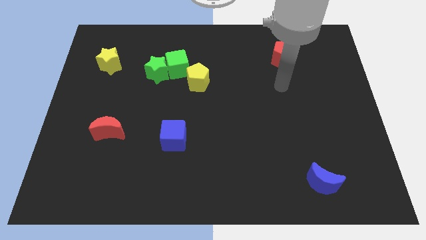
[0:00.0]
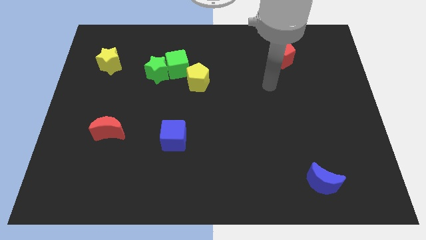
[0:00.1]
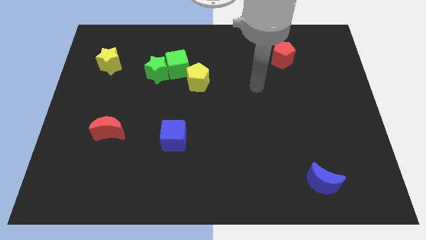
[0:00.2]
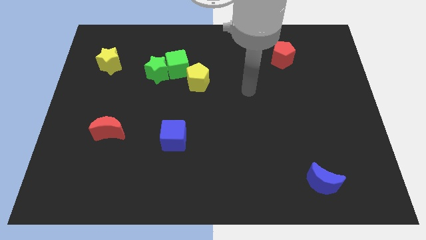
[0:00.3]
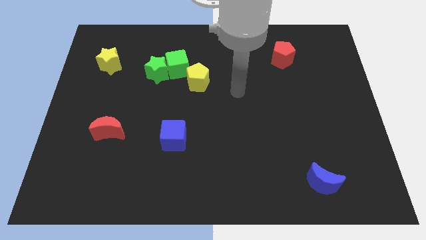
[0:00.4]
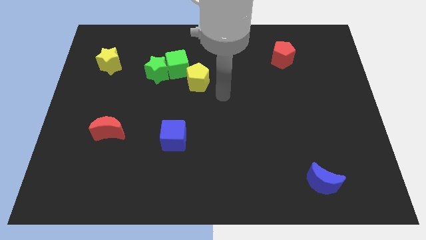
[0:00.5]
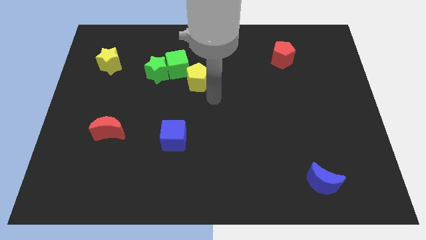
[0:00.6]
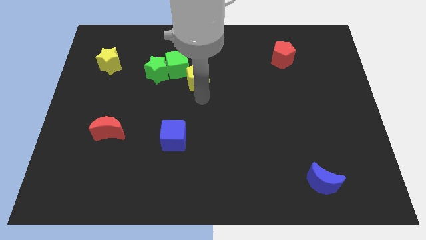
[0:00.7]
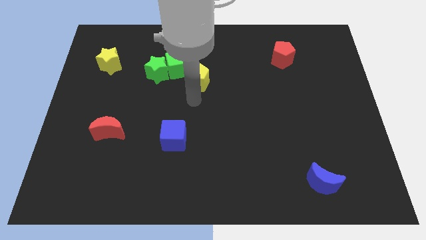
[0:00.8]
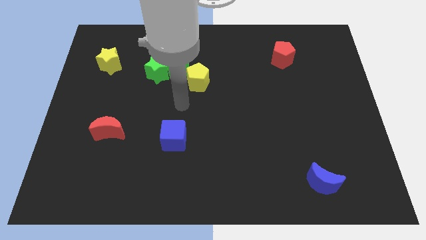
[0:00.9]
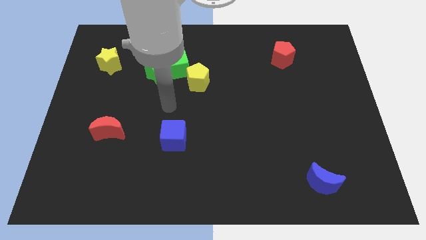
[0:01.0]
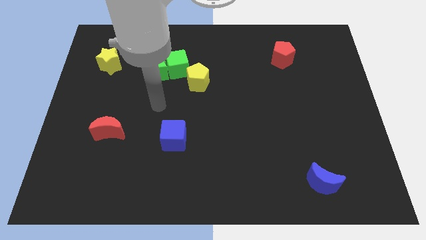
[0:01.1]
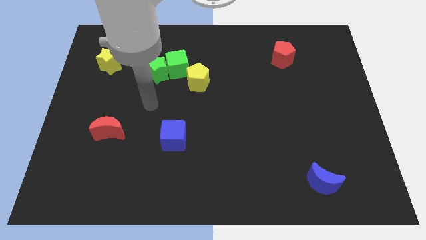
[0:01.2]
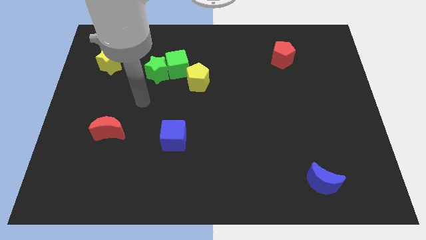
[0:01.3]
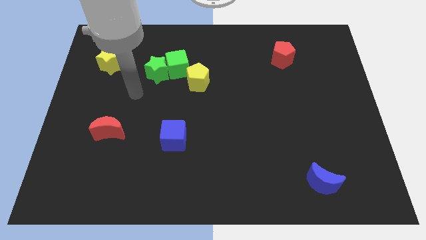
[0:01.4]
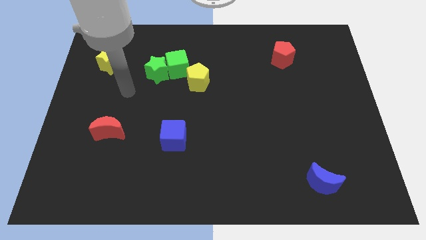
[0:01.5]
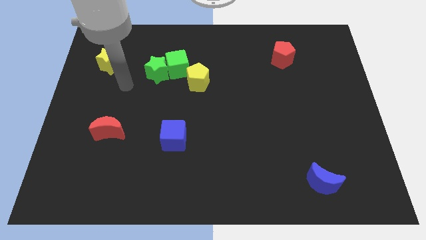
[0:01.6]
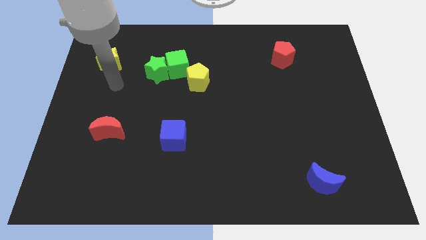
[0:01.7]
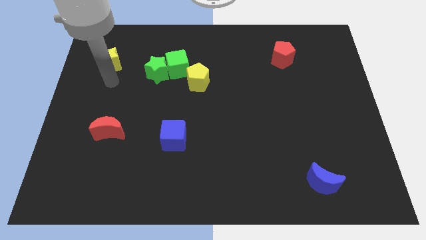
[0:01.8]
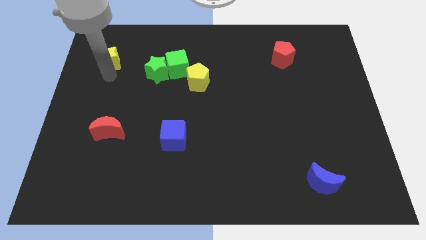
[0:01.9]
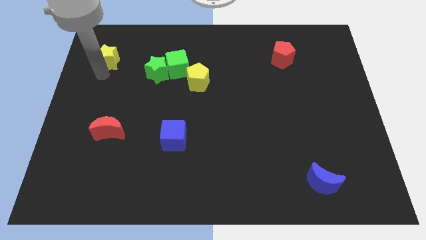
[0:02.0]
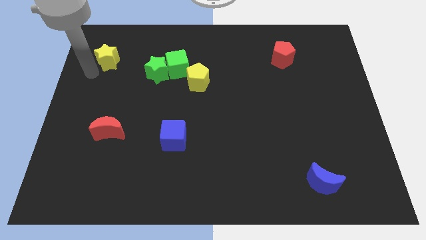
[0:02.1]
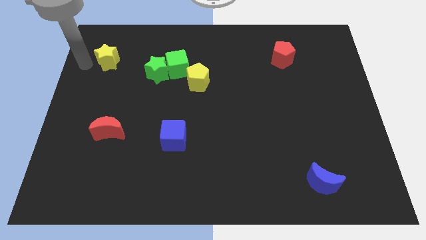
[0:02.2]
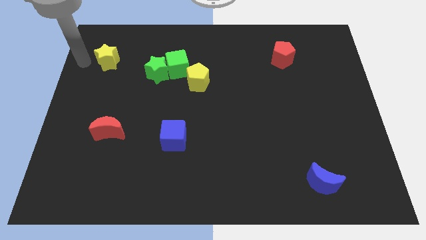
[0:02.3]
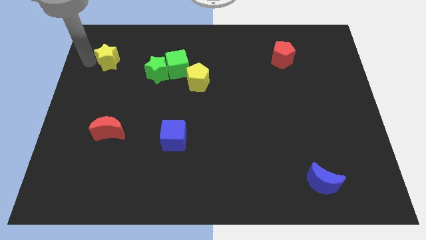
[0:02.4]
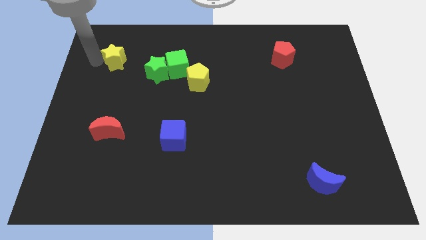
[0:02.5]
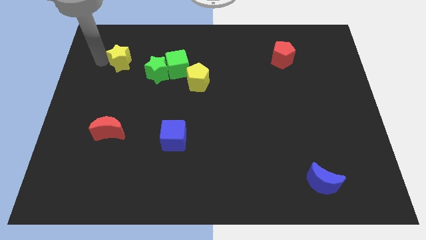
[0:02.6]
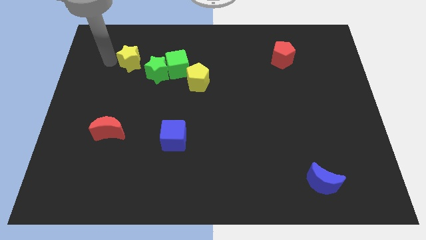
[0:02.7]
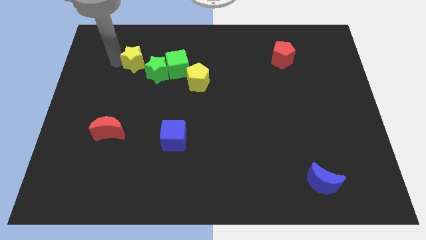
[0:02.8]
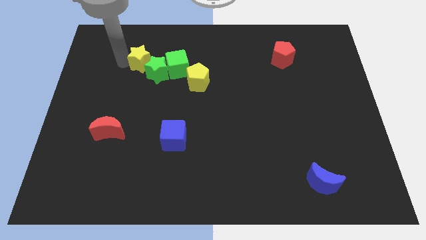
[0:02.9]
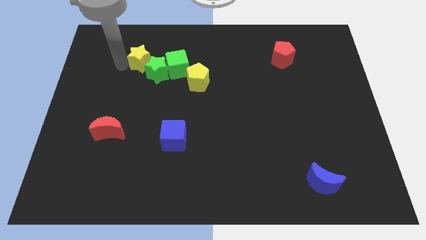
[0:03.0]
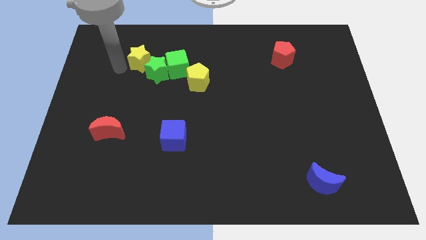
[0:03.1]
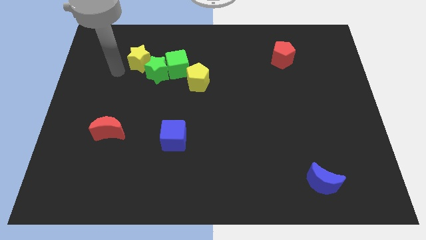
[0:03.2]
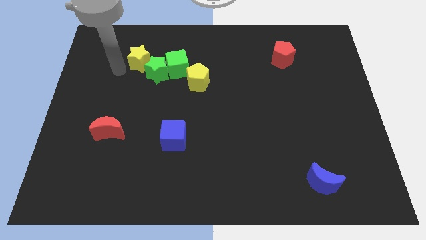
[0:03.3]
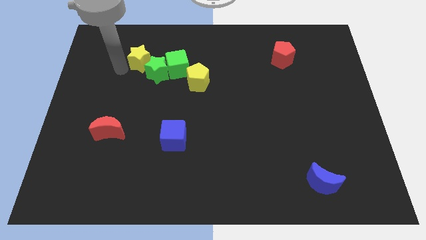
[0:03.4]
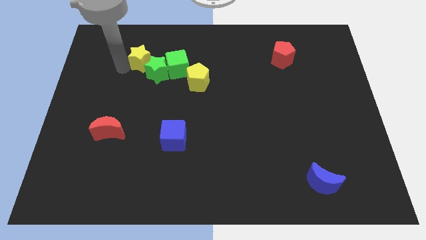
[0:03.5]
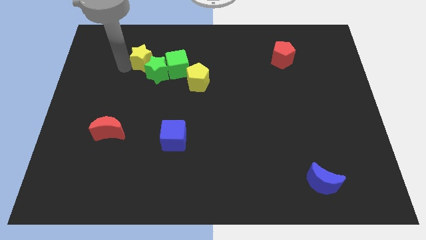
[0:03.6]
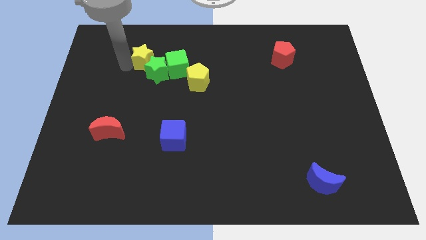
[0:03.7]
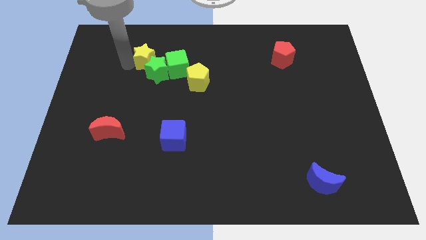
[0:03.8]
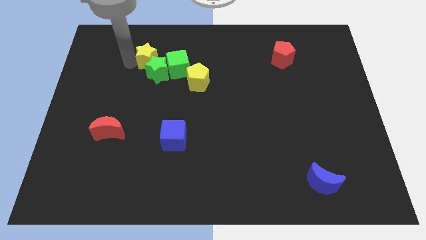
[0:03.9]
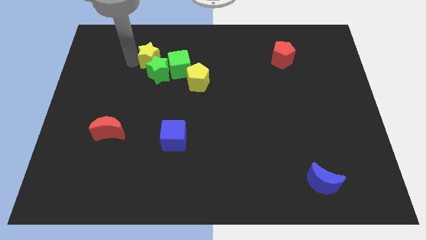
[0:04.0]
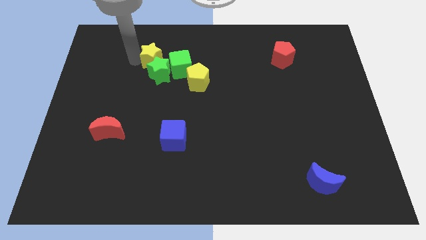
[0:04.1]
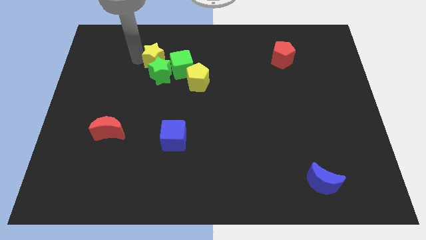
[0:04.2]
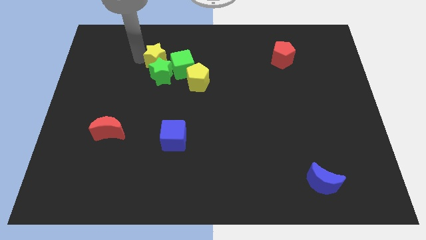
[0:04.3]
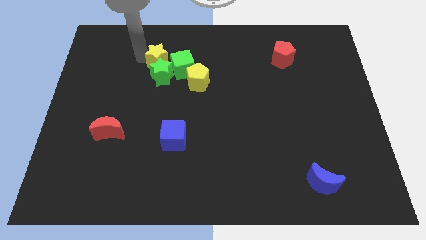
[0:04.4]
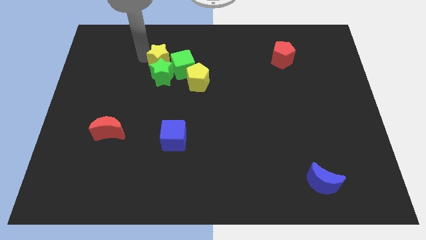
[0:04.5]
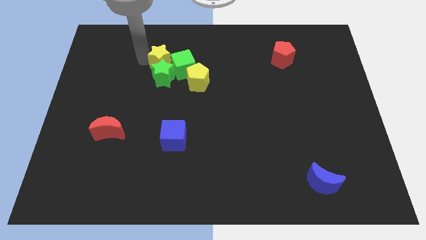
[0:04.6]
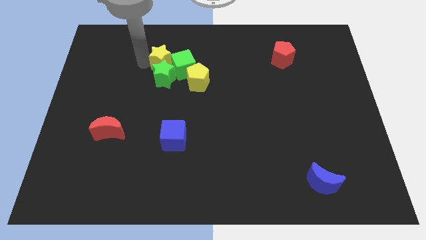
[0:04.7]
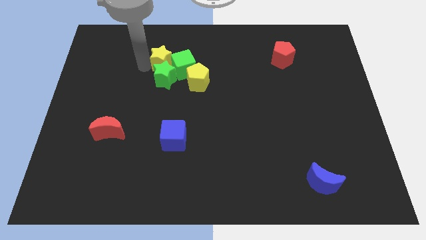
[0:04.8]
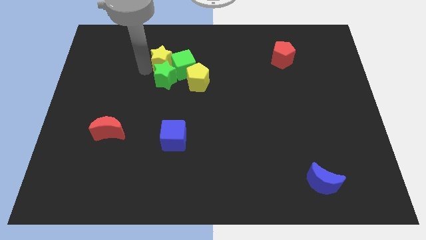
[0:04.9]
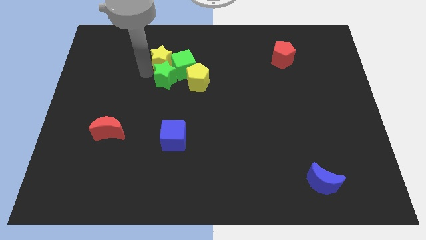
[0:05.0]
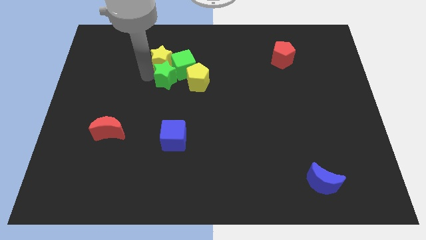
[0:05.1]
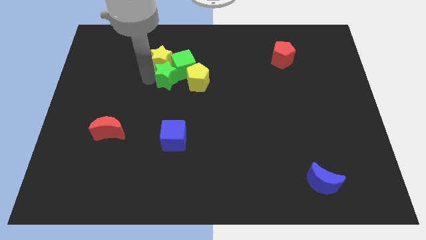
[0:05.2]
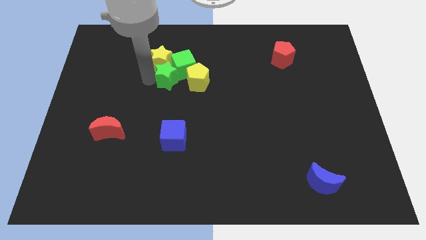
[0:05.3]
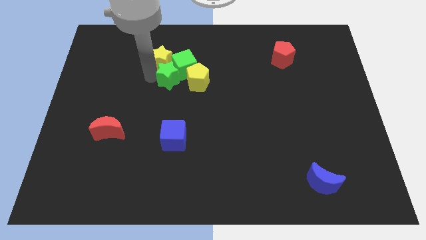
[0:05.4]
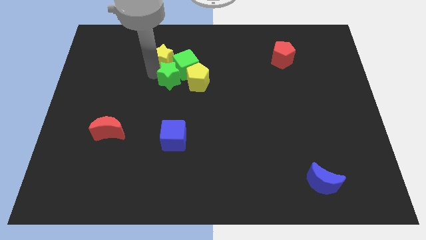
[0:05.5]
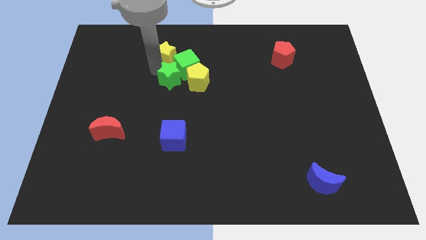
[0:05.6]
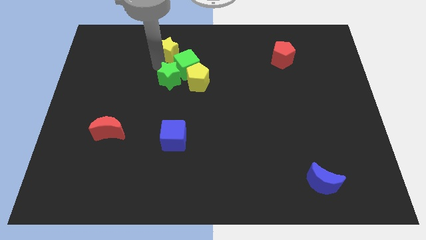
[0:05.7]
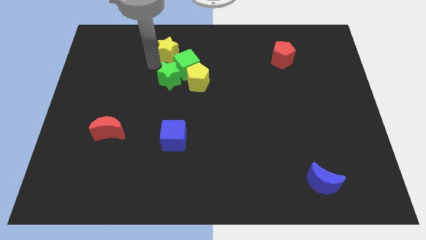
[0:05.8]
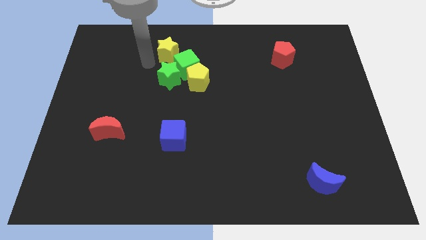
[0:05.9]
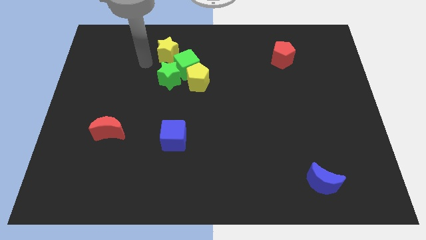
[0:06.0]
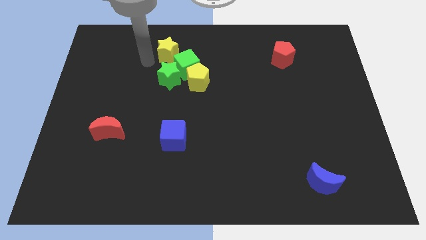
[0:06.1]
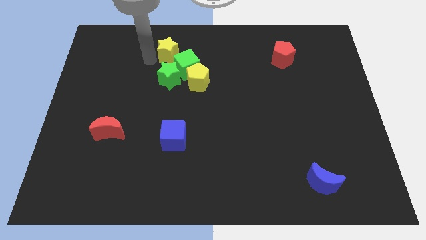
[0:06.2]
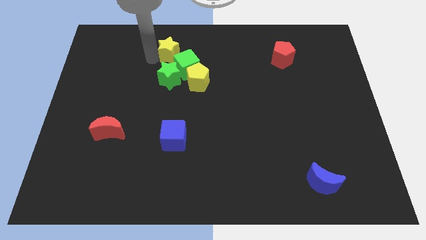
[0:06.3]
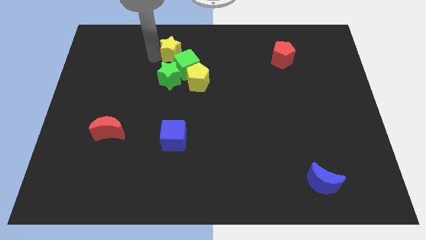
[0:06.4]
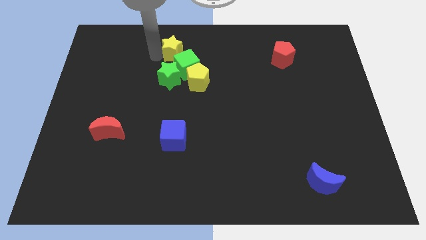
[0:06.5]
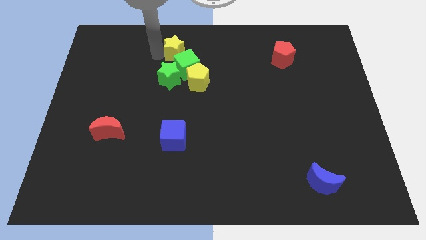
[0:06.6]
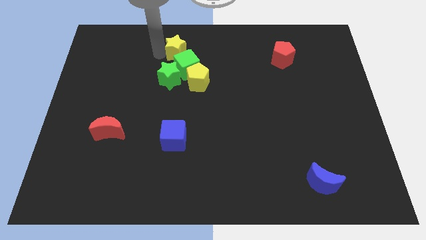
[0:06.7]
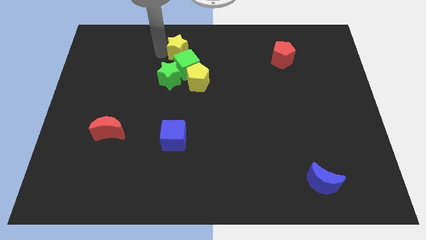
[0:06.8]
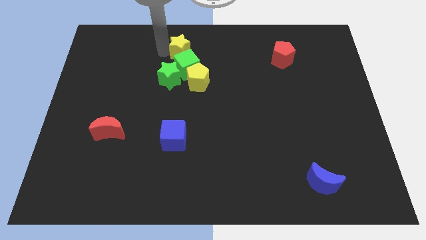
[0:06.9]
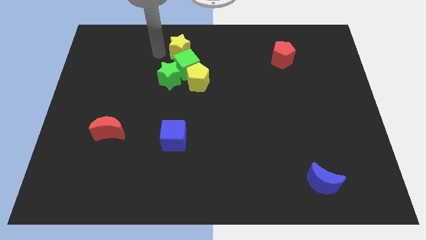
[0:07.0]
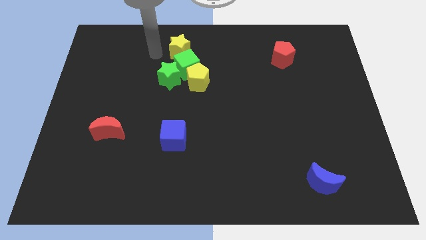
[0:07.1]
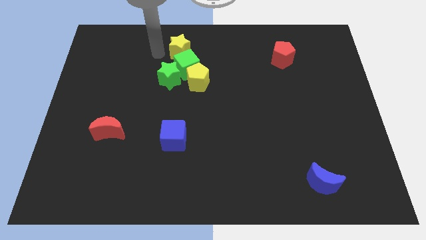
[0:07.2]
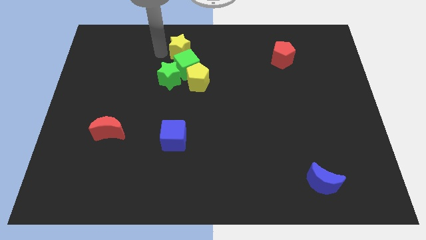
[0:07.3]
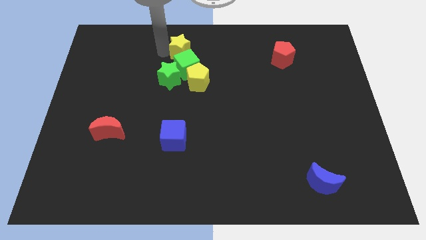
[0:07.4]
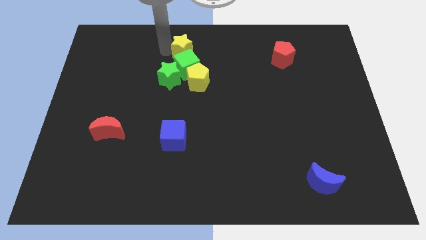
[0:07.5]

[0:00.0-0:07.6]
push the yellow star to the top

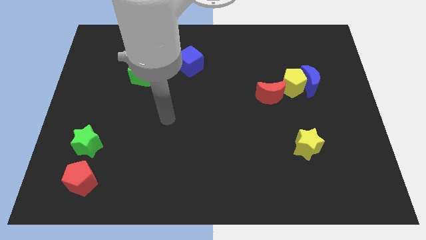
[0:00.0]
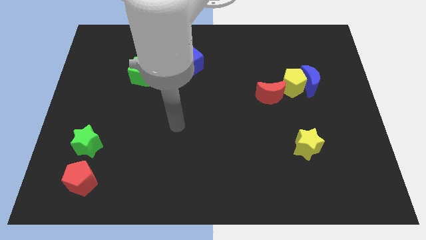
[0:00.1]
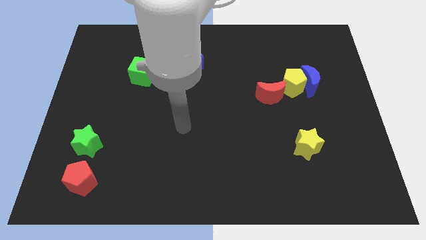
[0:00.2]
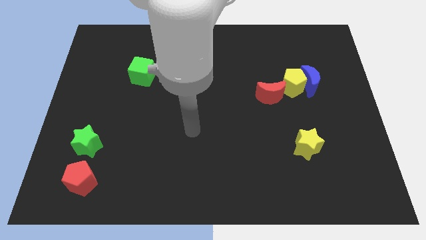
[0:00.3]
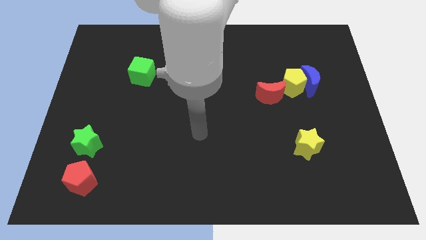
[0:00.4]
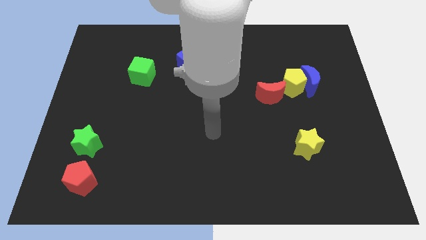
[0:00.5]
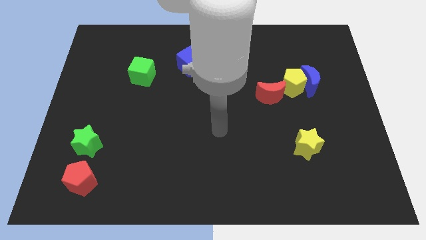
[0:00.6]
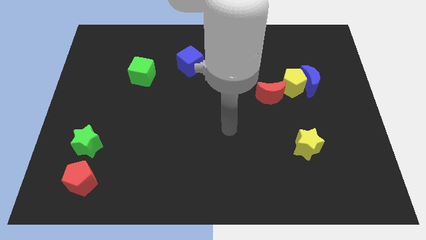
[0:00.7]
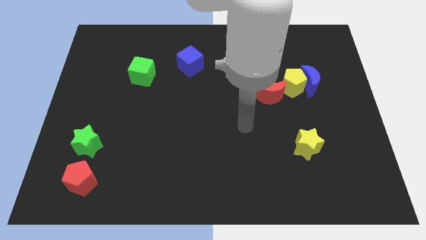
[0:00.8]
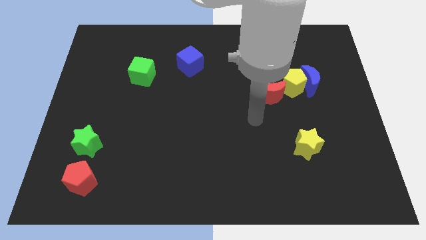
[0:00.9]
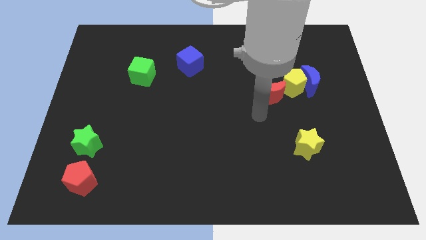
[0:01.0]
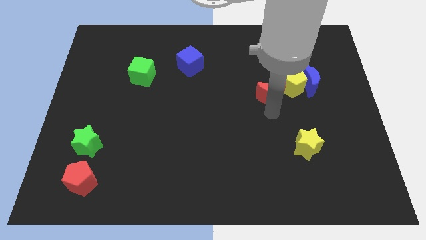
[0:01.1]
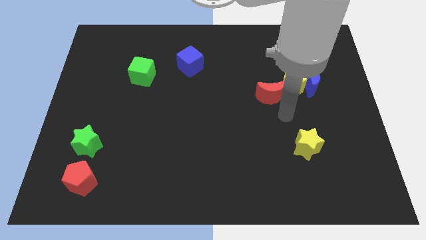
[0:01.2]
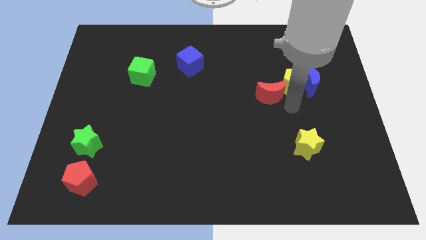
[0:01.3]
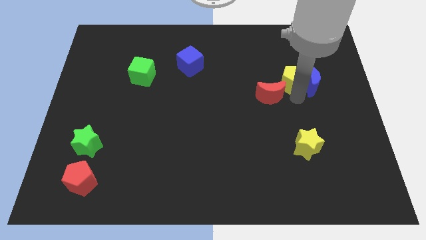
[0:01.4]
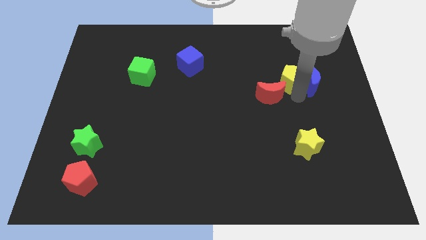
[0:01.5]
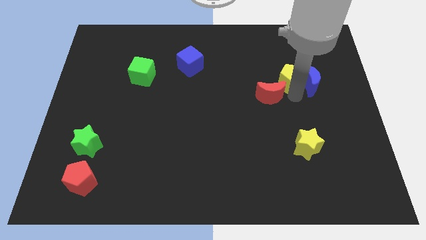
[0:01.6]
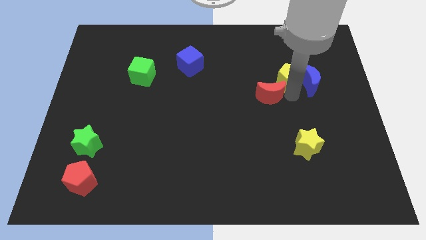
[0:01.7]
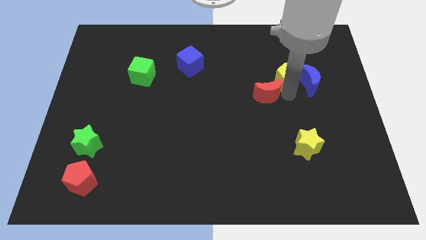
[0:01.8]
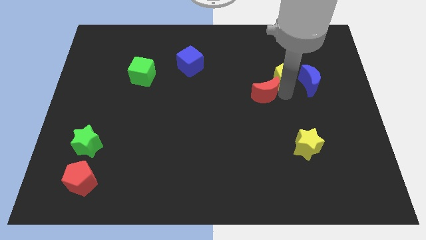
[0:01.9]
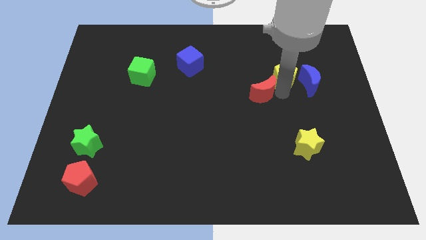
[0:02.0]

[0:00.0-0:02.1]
push the red moon to the middle
